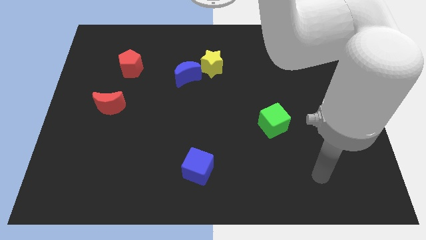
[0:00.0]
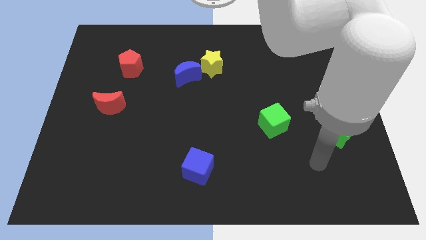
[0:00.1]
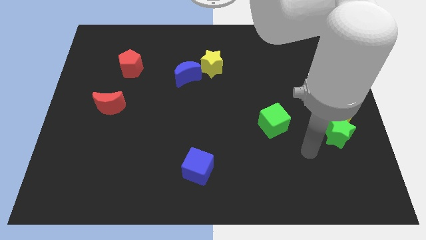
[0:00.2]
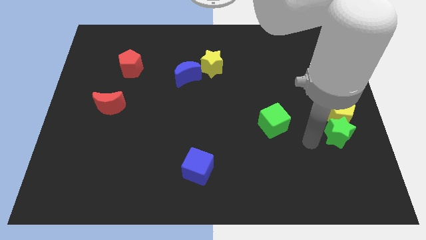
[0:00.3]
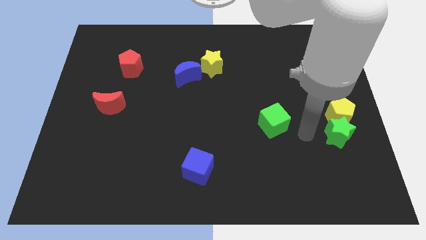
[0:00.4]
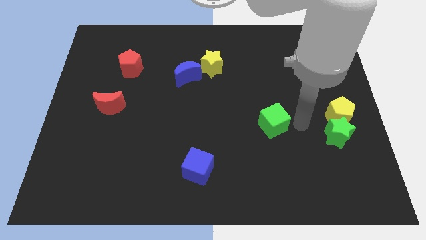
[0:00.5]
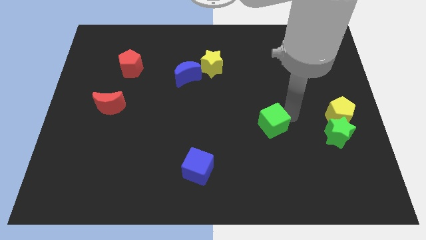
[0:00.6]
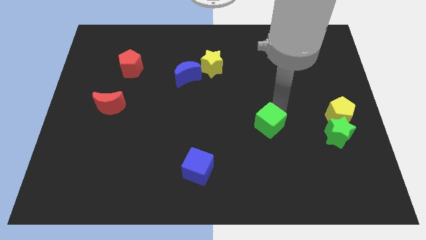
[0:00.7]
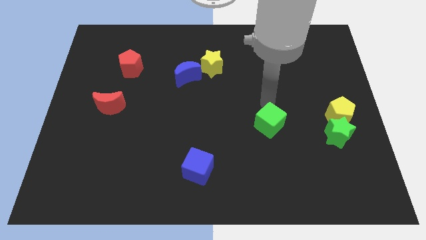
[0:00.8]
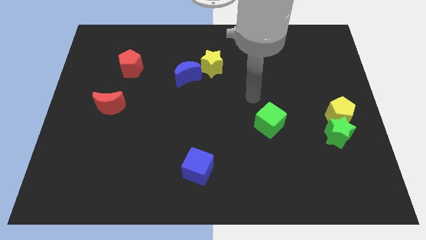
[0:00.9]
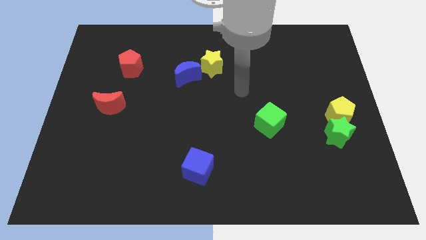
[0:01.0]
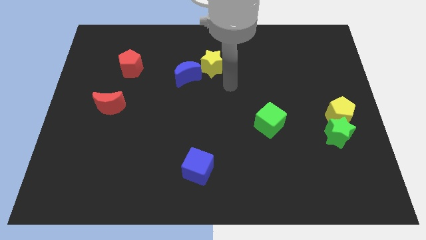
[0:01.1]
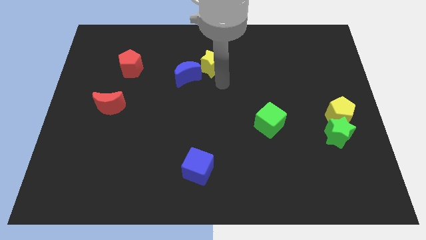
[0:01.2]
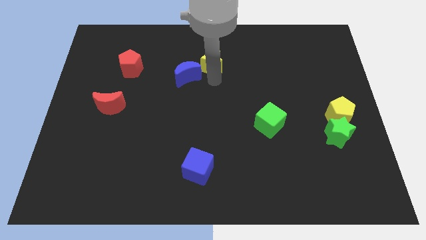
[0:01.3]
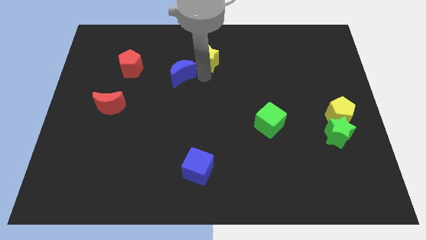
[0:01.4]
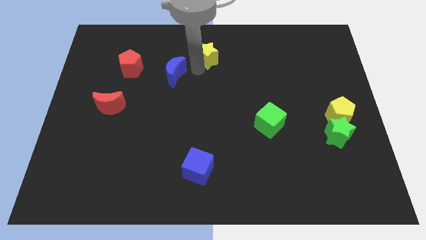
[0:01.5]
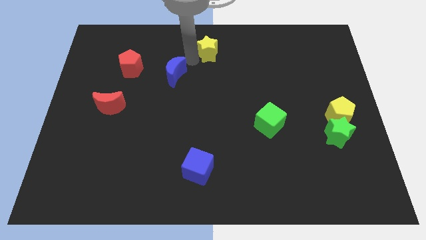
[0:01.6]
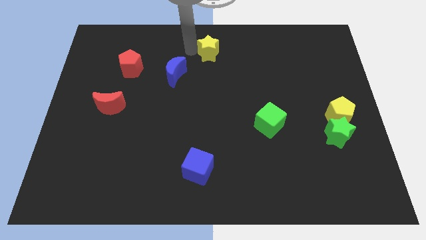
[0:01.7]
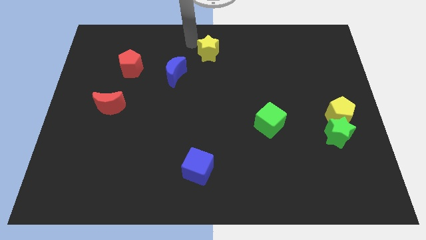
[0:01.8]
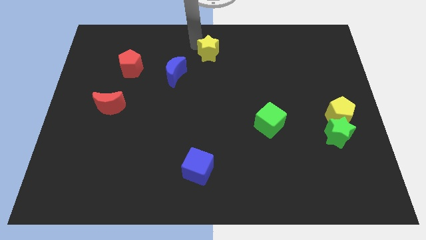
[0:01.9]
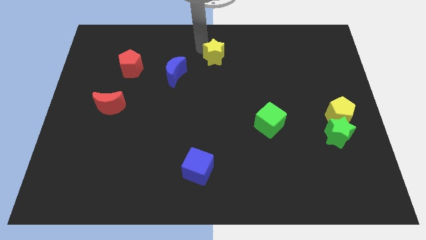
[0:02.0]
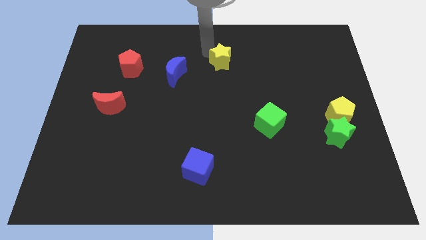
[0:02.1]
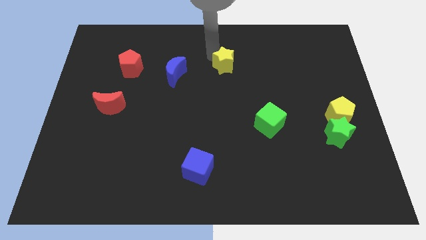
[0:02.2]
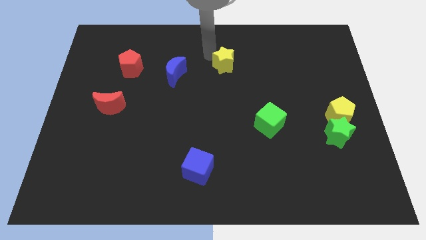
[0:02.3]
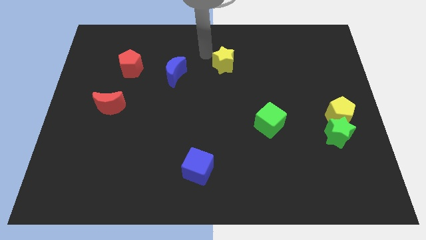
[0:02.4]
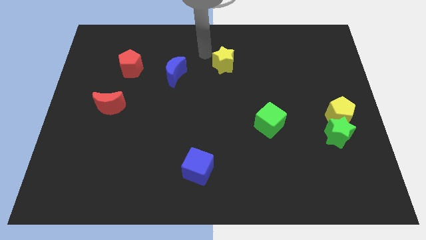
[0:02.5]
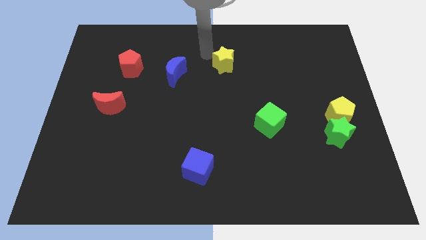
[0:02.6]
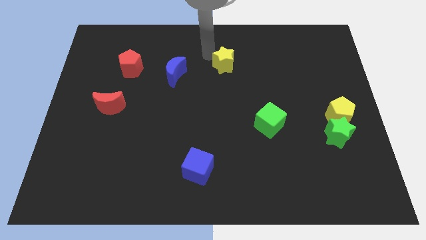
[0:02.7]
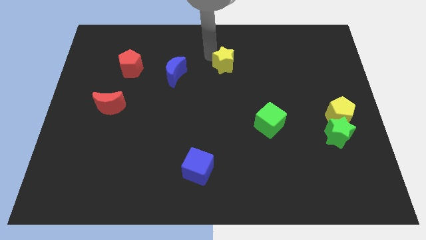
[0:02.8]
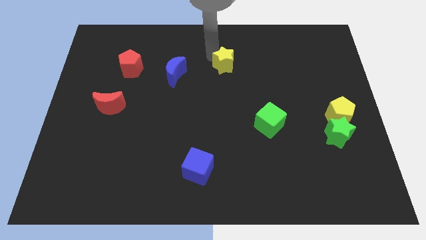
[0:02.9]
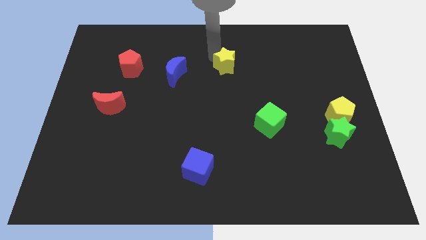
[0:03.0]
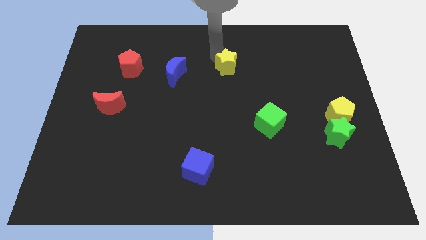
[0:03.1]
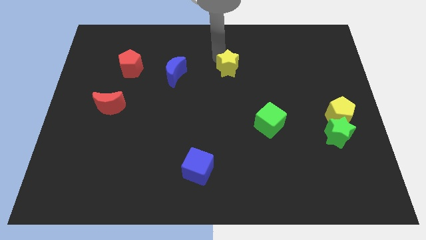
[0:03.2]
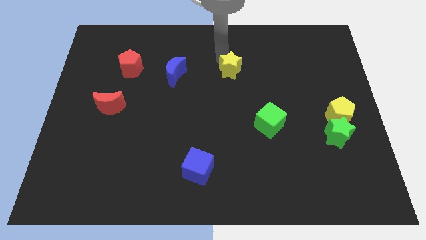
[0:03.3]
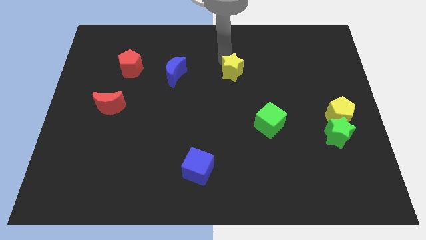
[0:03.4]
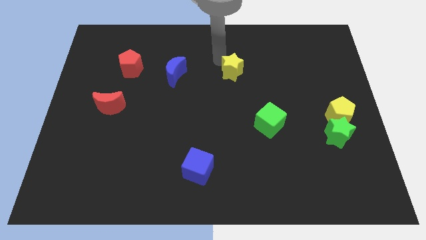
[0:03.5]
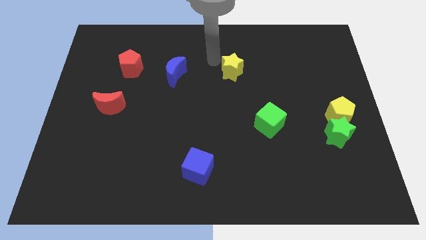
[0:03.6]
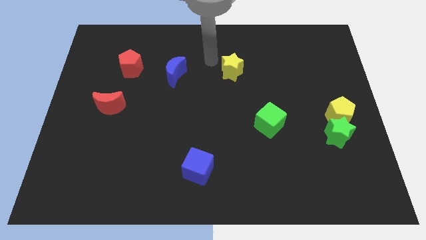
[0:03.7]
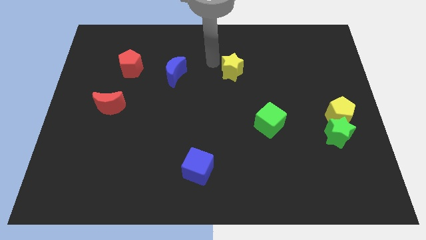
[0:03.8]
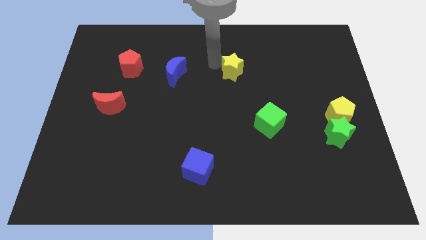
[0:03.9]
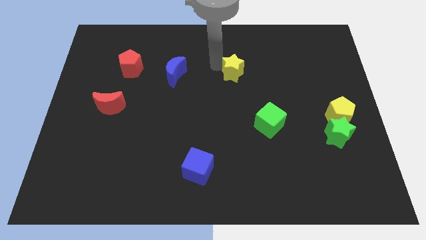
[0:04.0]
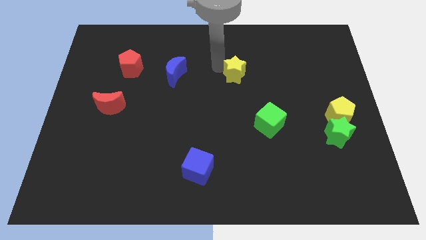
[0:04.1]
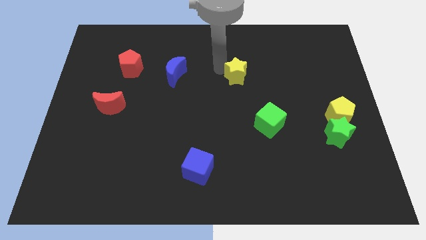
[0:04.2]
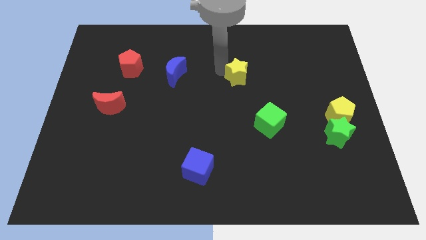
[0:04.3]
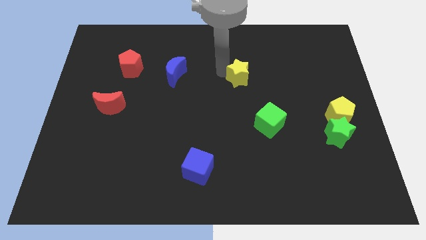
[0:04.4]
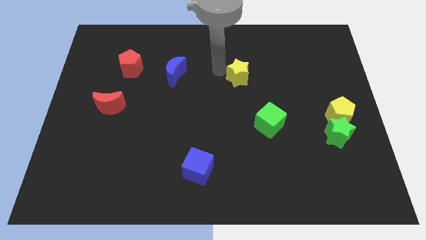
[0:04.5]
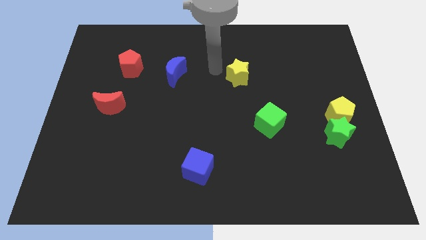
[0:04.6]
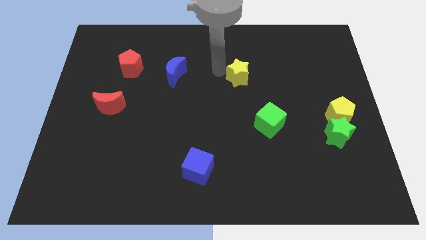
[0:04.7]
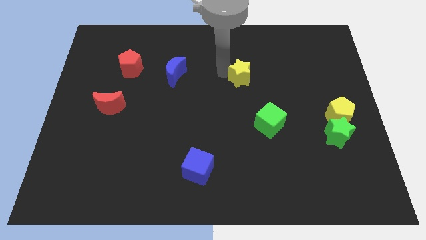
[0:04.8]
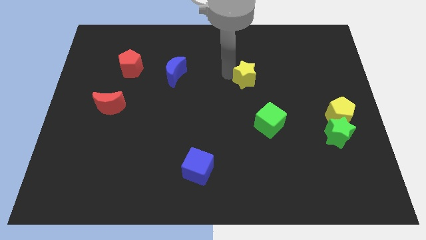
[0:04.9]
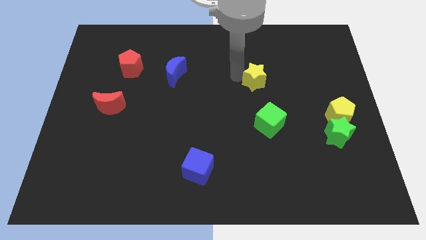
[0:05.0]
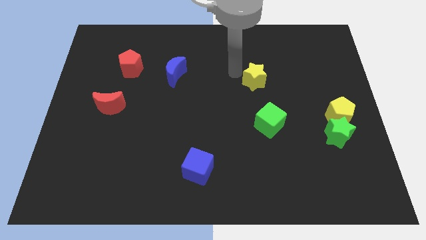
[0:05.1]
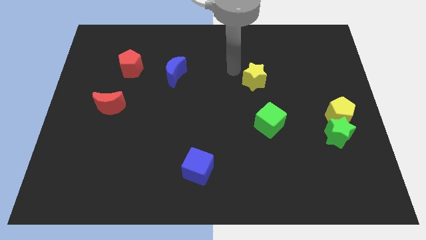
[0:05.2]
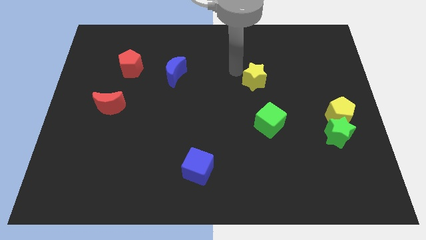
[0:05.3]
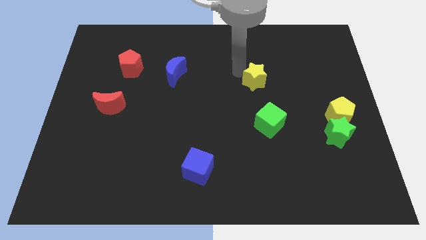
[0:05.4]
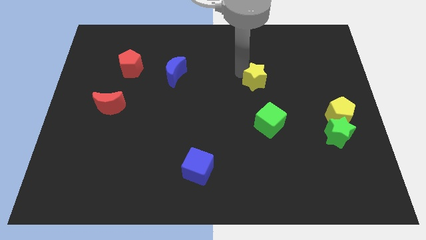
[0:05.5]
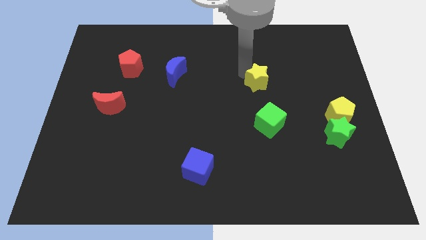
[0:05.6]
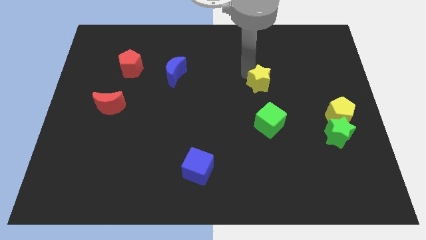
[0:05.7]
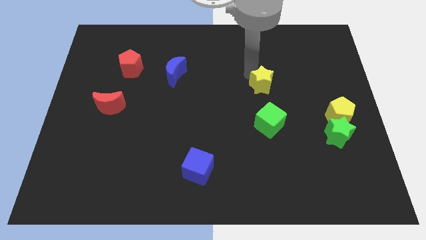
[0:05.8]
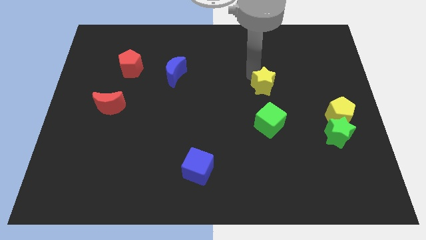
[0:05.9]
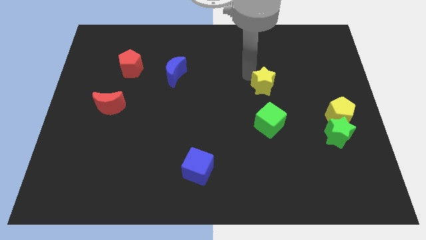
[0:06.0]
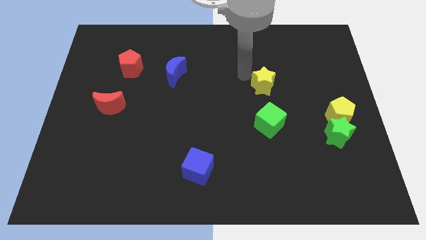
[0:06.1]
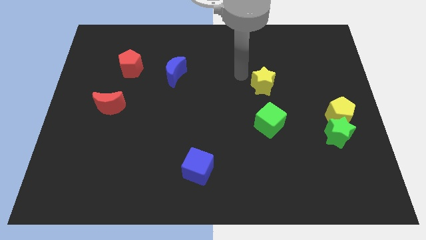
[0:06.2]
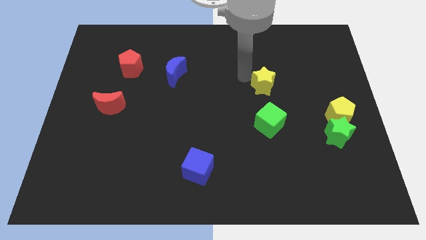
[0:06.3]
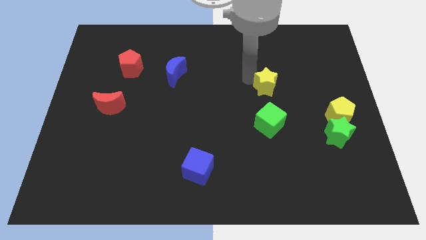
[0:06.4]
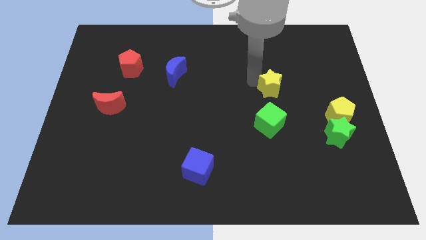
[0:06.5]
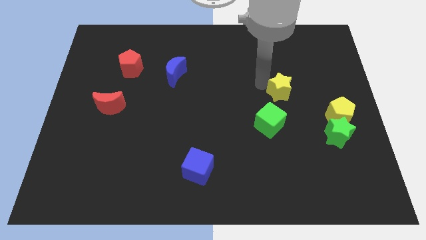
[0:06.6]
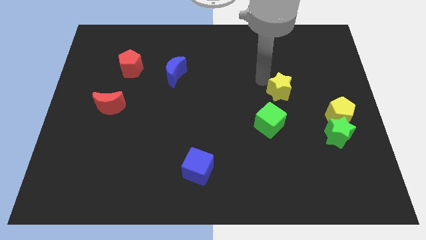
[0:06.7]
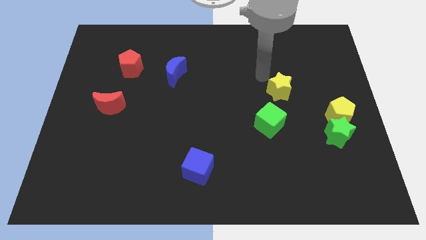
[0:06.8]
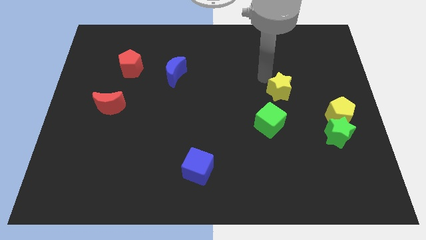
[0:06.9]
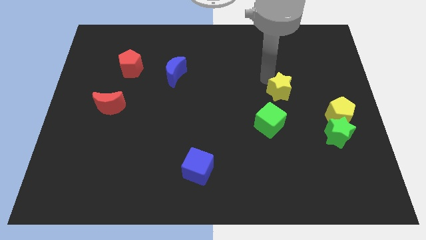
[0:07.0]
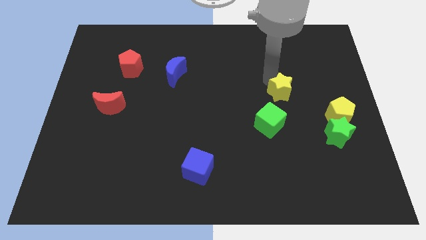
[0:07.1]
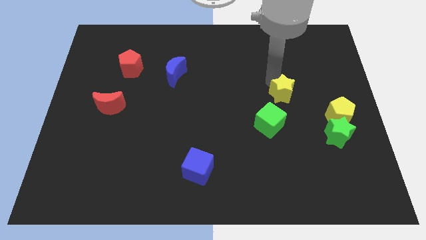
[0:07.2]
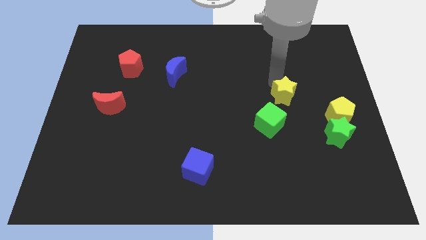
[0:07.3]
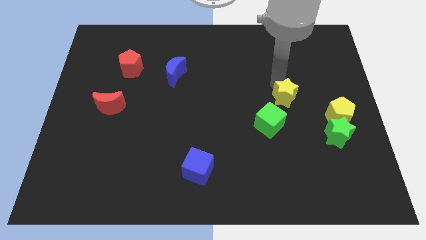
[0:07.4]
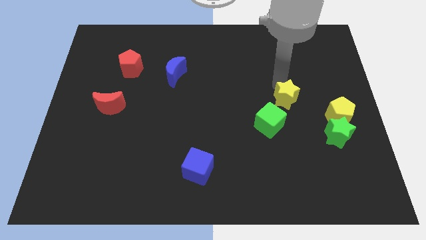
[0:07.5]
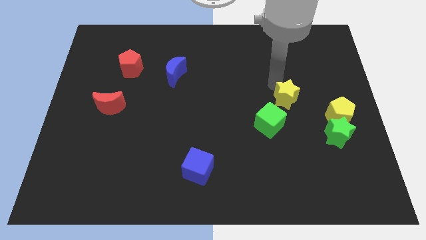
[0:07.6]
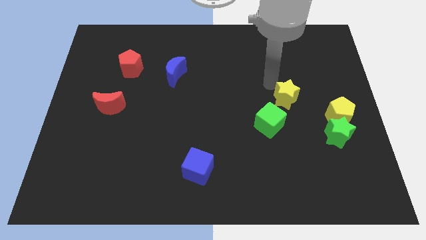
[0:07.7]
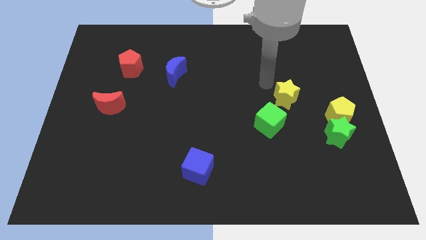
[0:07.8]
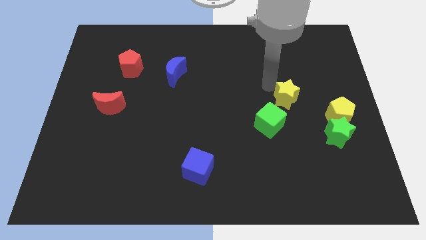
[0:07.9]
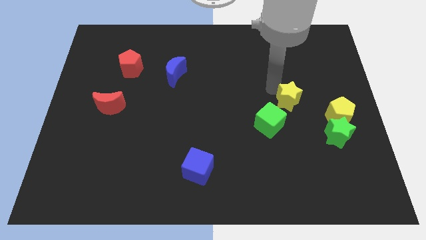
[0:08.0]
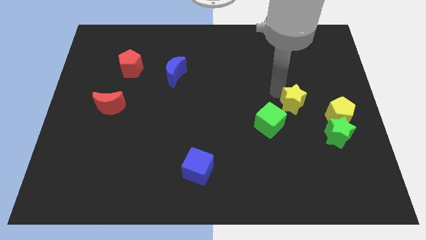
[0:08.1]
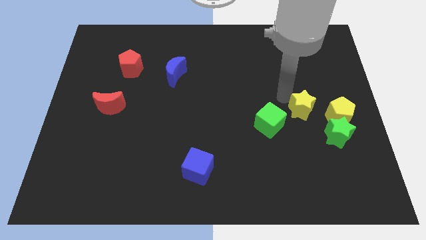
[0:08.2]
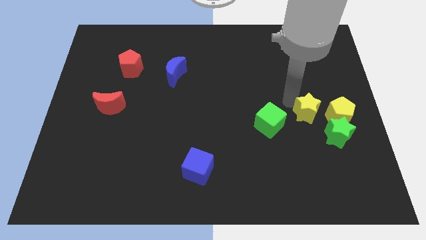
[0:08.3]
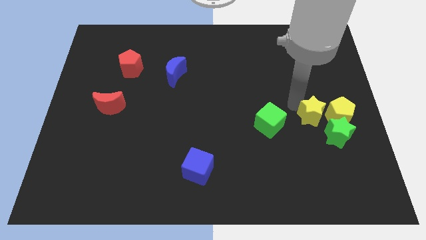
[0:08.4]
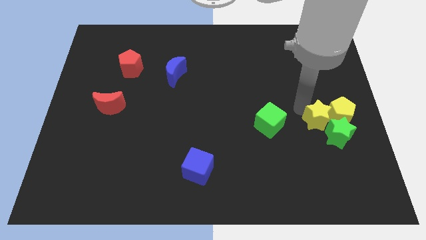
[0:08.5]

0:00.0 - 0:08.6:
slide the yellow star next to the green star
